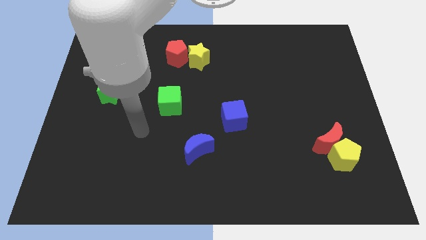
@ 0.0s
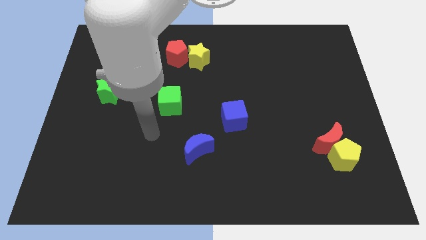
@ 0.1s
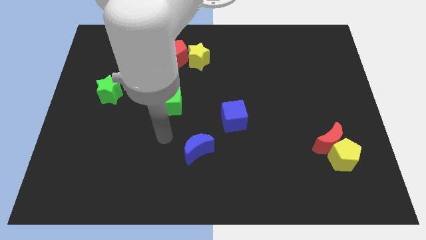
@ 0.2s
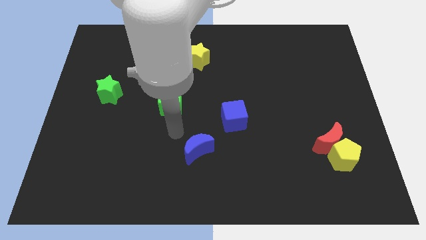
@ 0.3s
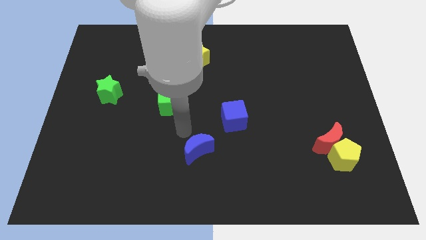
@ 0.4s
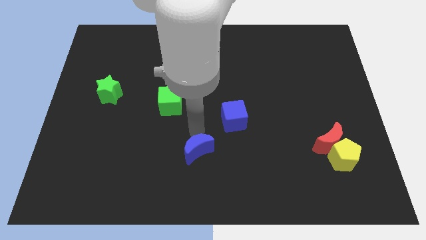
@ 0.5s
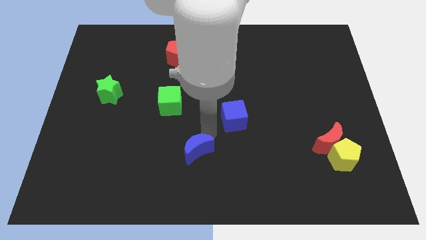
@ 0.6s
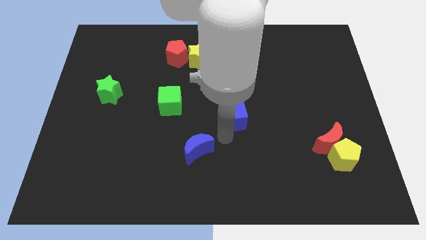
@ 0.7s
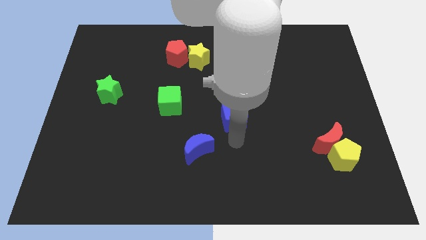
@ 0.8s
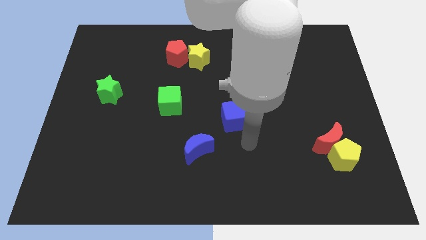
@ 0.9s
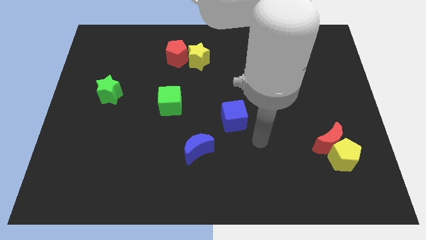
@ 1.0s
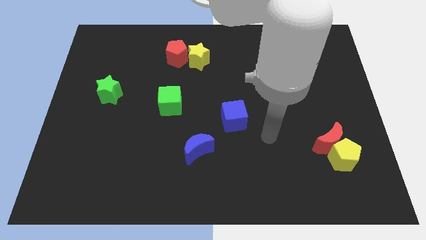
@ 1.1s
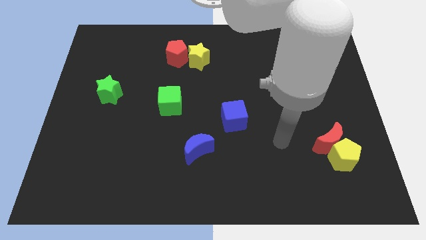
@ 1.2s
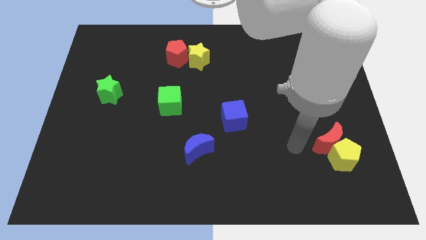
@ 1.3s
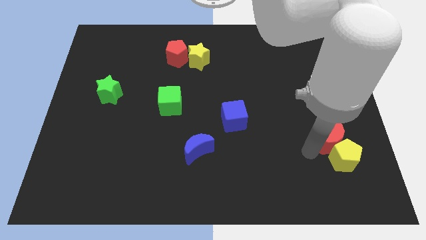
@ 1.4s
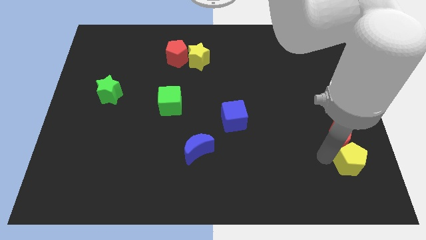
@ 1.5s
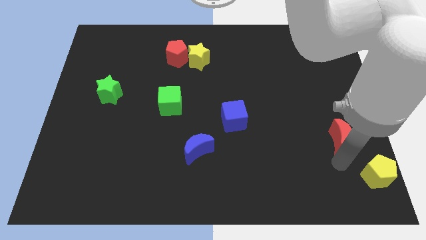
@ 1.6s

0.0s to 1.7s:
pull the red moon apart from the yellow pentagon

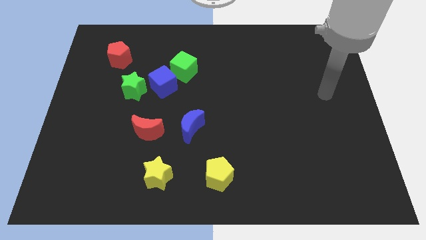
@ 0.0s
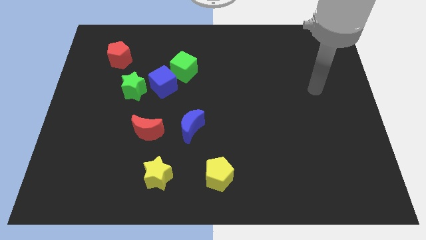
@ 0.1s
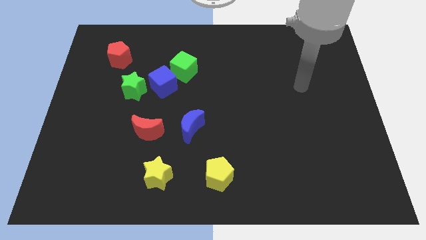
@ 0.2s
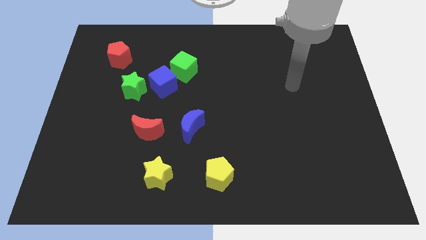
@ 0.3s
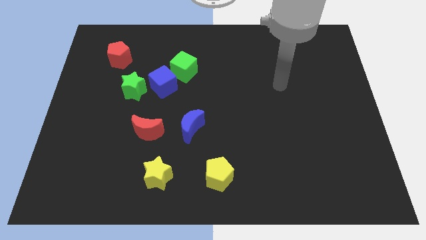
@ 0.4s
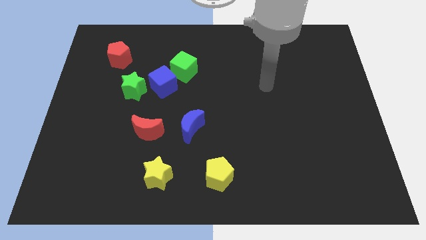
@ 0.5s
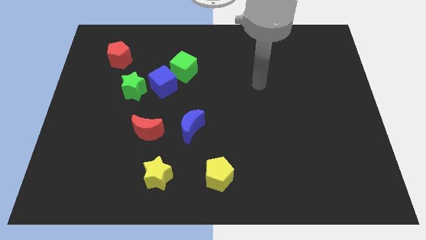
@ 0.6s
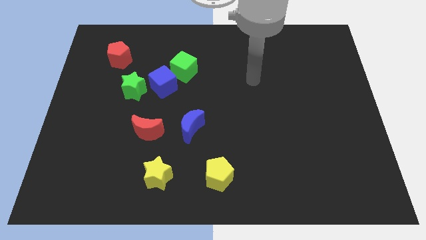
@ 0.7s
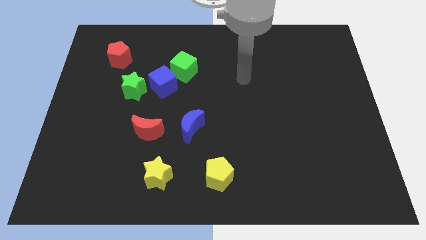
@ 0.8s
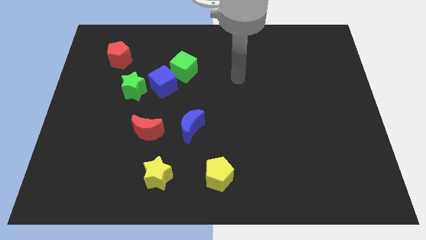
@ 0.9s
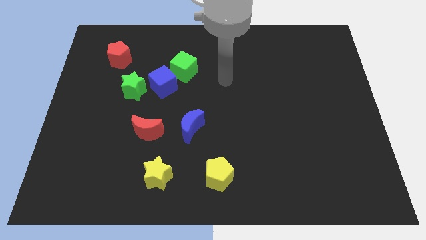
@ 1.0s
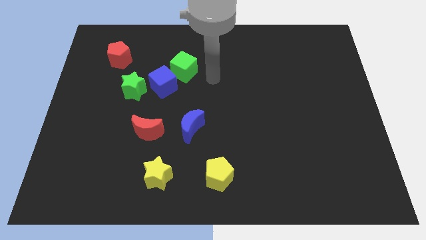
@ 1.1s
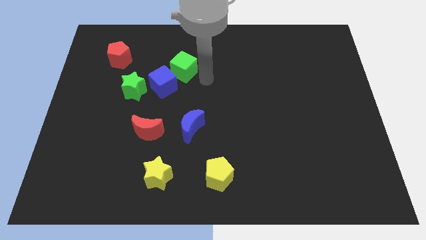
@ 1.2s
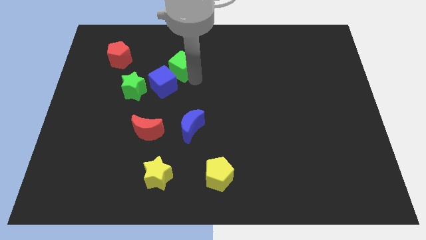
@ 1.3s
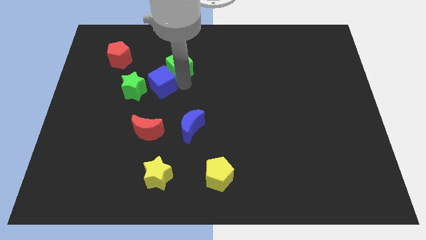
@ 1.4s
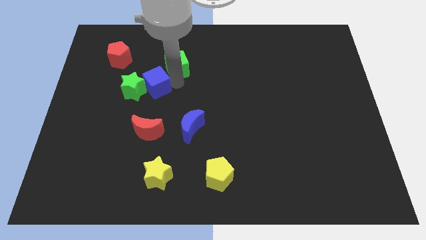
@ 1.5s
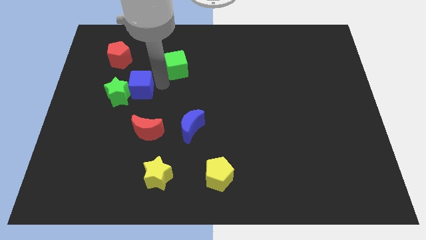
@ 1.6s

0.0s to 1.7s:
move the green cube away from the blue cube

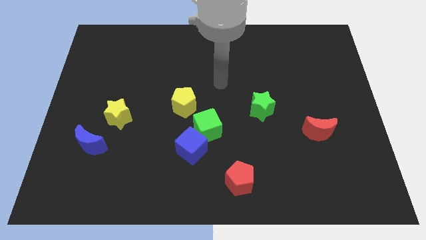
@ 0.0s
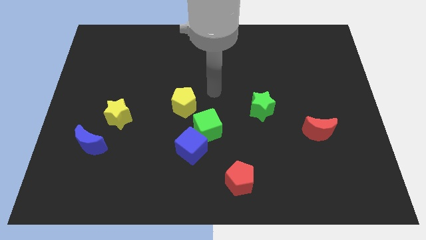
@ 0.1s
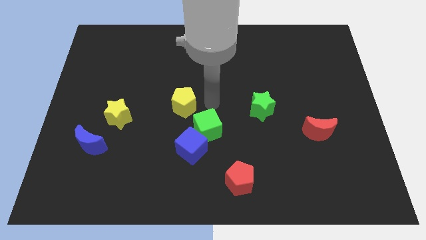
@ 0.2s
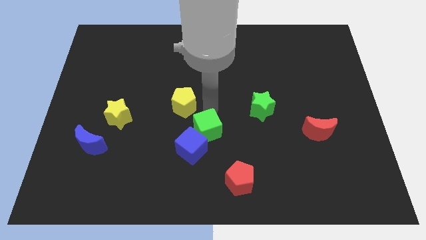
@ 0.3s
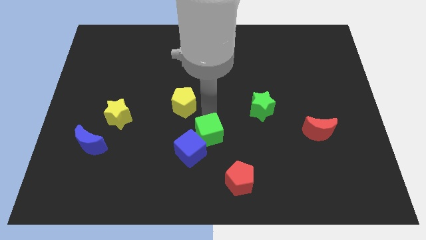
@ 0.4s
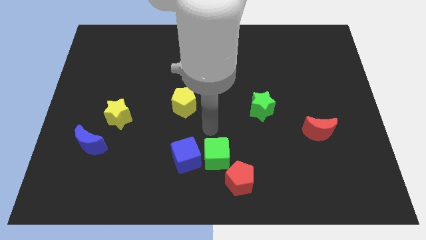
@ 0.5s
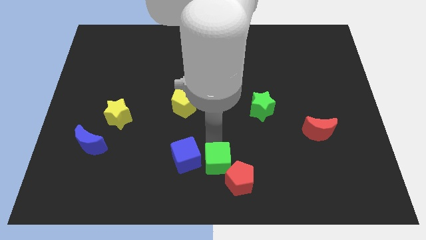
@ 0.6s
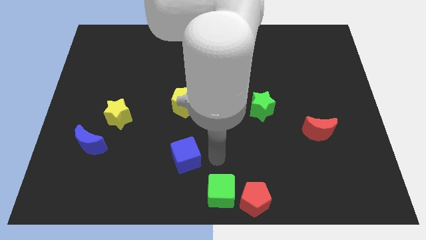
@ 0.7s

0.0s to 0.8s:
pull the blue cube apart from the green cube

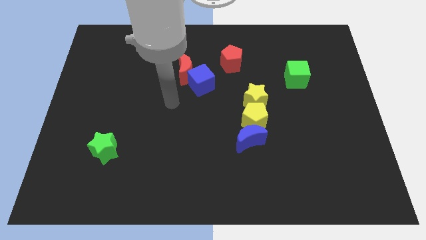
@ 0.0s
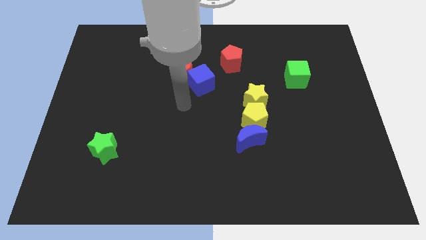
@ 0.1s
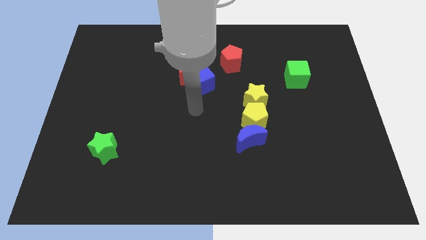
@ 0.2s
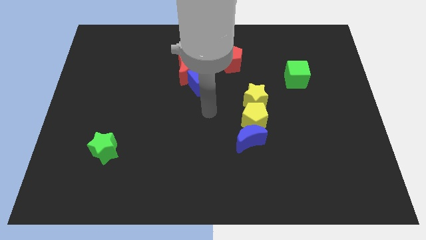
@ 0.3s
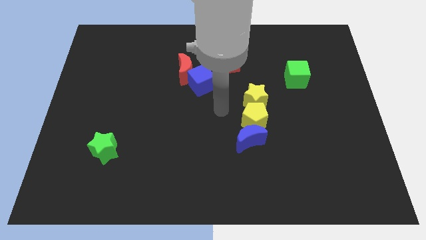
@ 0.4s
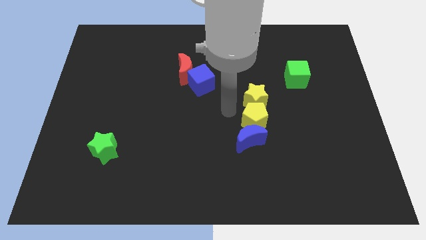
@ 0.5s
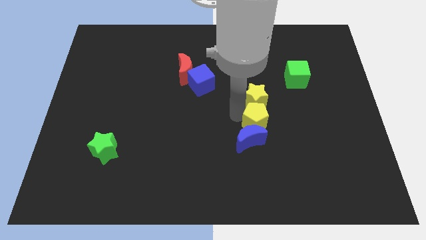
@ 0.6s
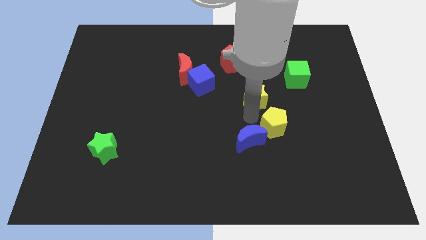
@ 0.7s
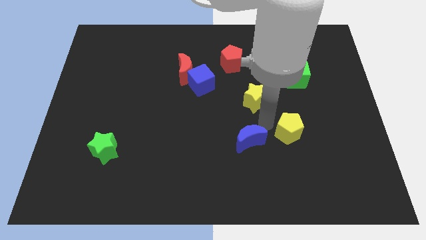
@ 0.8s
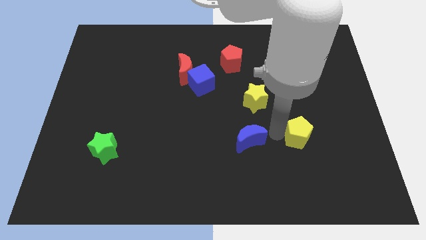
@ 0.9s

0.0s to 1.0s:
move the blue moon away from the yellow pentagon

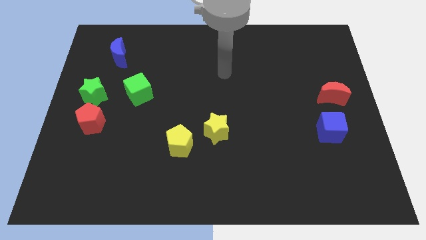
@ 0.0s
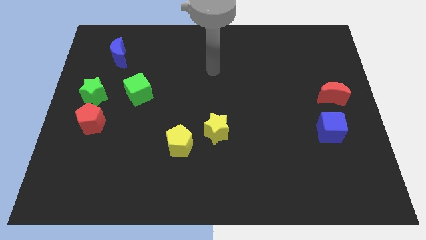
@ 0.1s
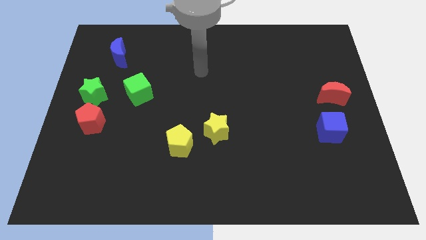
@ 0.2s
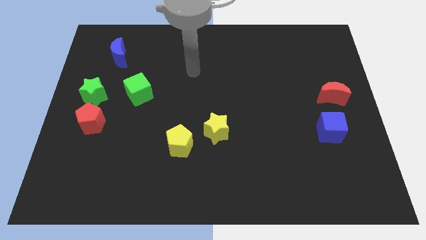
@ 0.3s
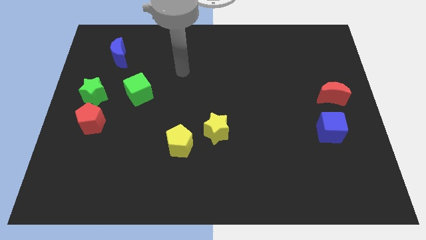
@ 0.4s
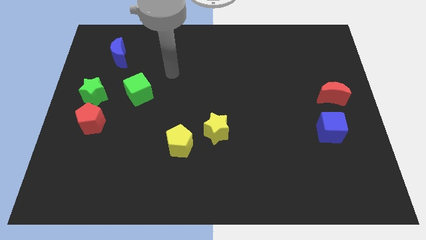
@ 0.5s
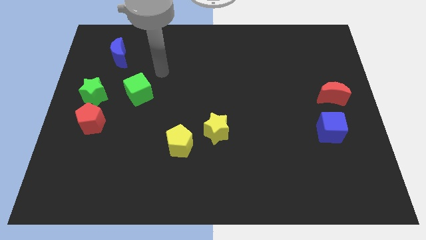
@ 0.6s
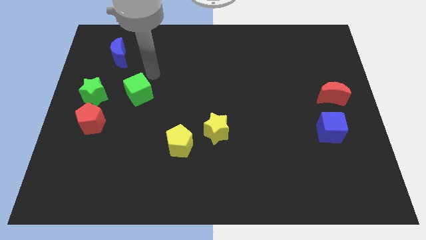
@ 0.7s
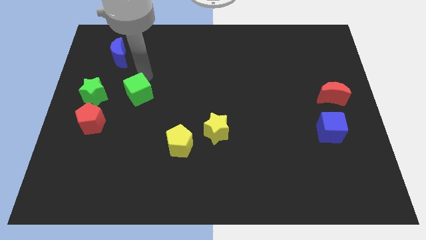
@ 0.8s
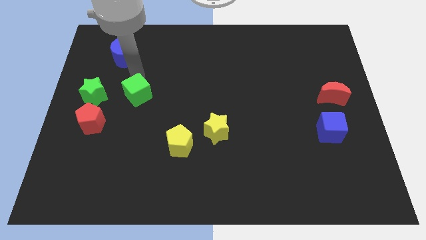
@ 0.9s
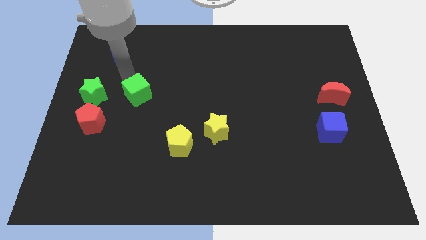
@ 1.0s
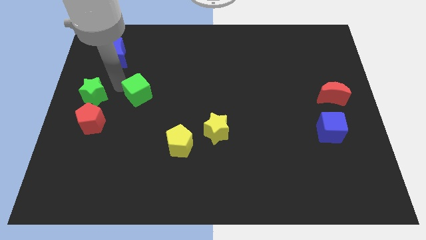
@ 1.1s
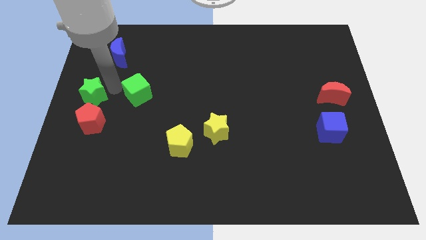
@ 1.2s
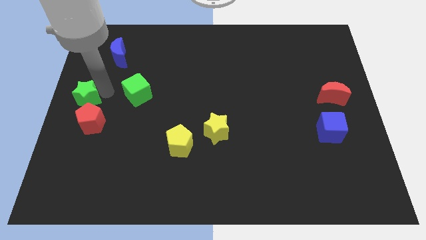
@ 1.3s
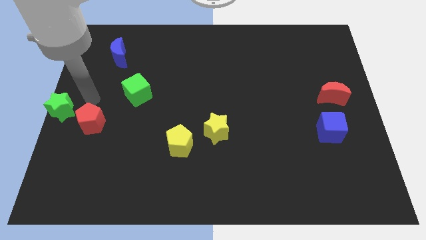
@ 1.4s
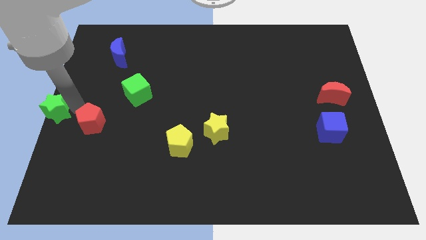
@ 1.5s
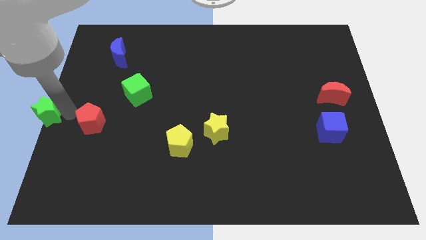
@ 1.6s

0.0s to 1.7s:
pull the red pentagon apart from the green star

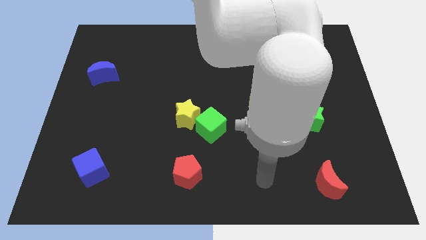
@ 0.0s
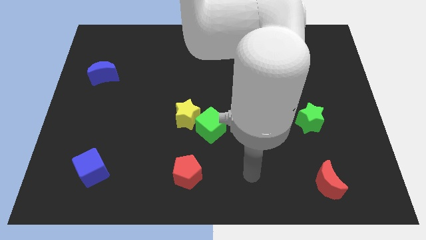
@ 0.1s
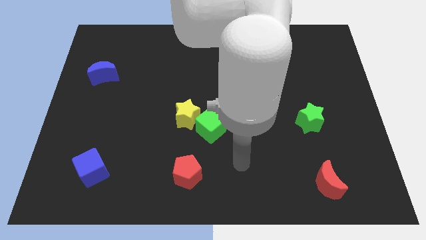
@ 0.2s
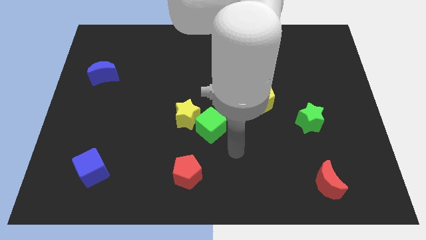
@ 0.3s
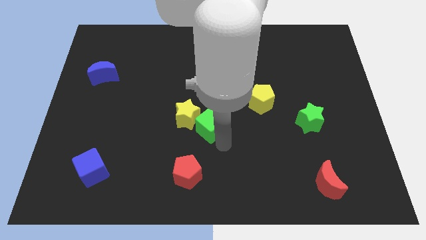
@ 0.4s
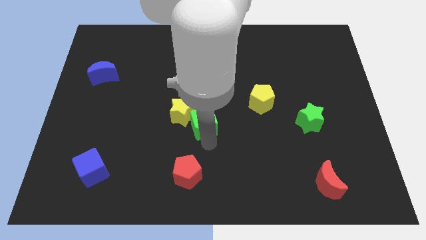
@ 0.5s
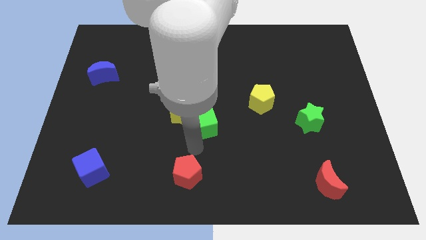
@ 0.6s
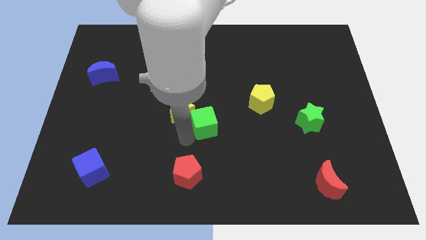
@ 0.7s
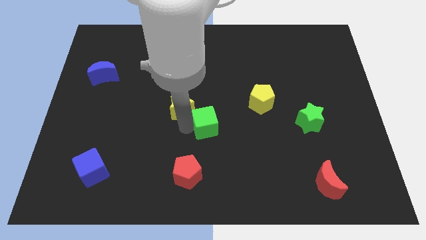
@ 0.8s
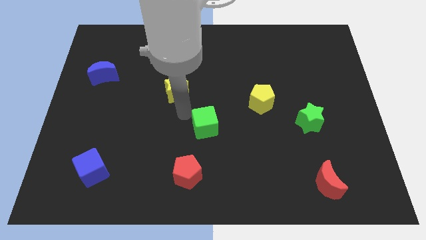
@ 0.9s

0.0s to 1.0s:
pull the green cube apart from the yellow star

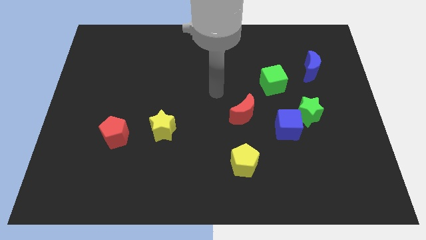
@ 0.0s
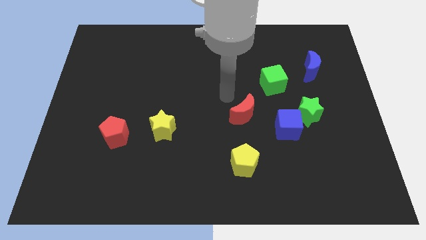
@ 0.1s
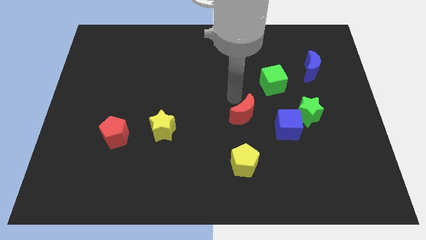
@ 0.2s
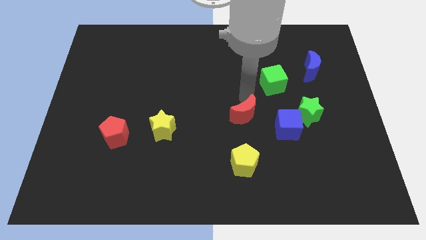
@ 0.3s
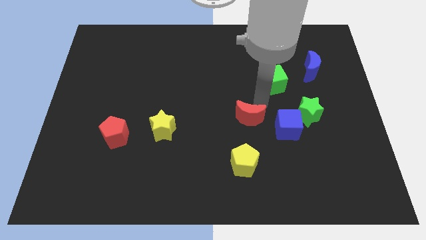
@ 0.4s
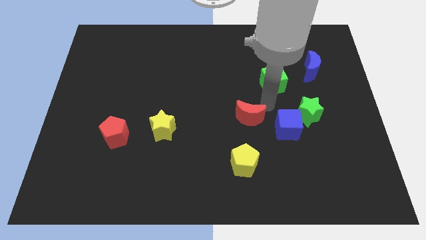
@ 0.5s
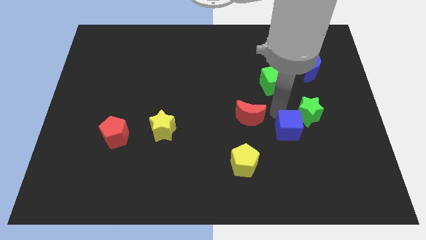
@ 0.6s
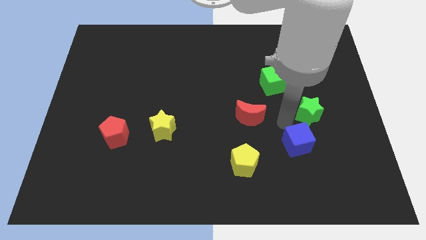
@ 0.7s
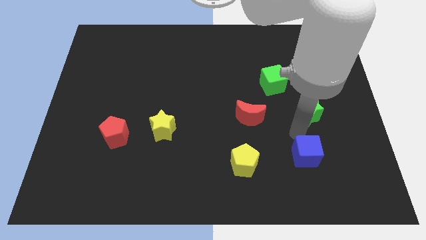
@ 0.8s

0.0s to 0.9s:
separate the green star from the blue cube

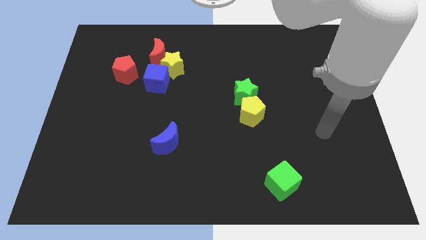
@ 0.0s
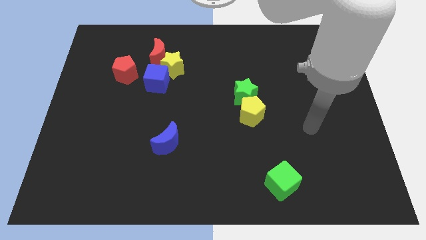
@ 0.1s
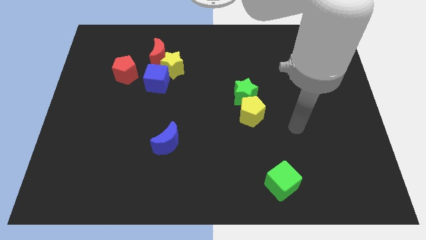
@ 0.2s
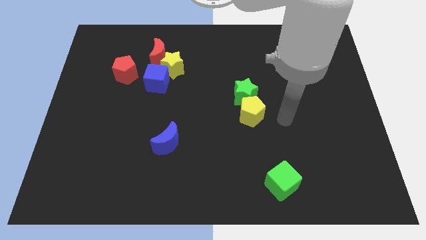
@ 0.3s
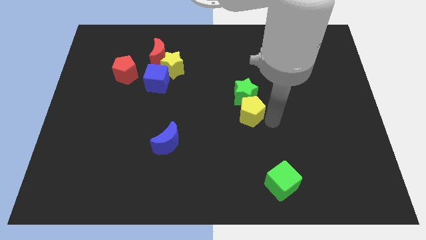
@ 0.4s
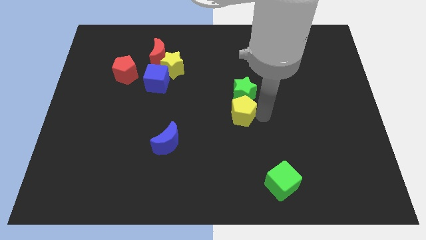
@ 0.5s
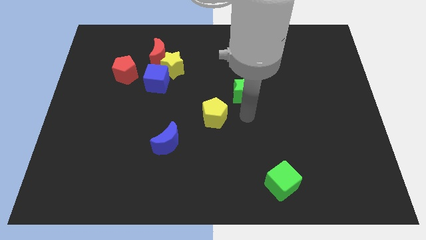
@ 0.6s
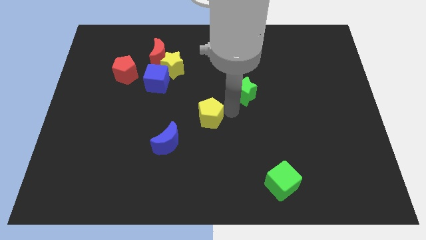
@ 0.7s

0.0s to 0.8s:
separate the green star from the yellow pentagon
